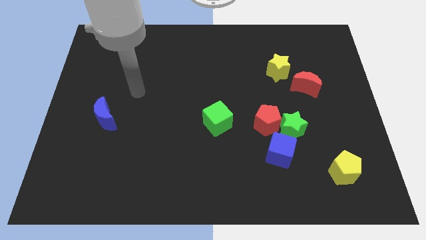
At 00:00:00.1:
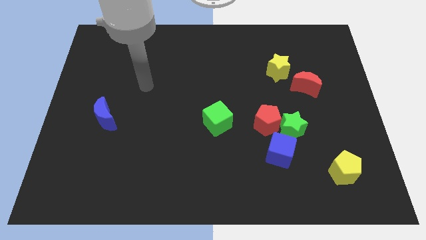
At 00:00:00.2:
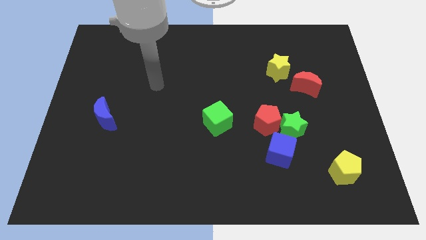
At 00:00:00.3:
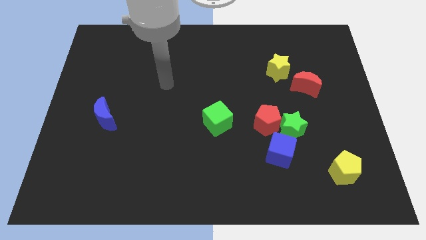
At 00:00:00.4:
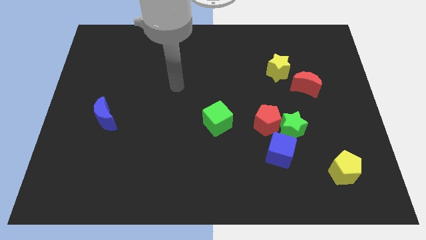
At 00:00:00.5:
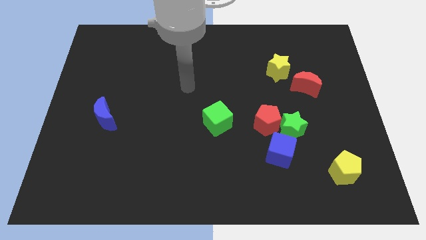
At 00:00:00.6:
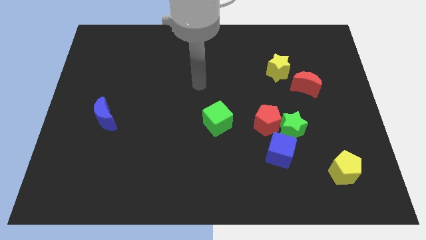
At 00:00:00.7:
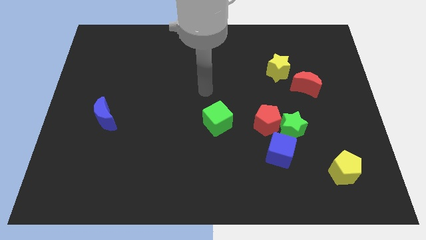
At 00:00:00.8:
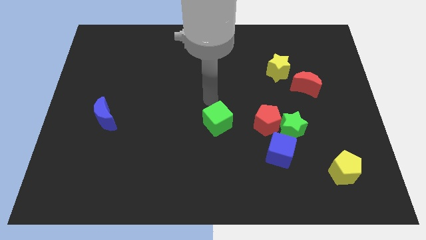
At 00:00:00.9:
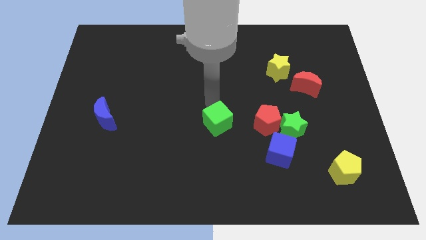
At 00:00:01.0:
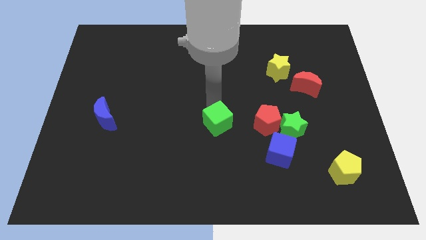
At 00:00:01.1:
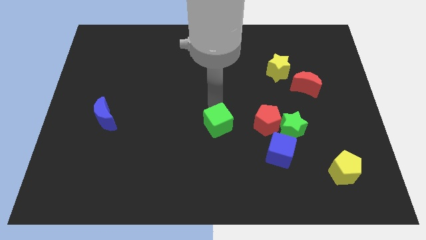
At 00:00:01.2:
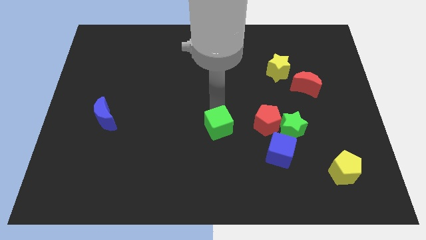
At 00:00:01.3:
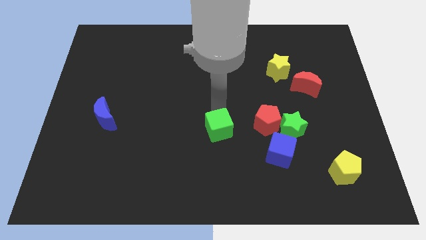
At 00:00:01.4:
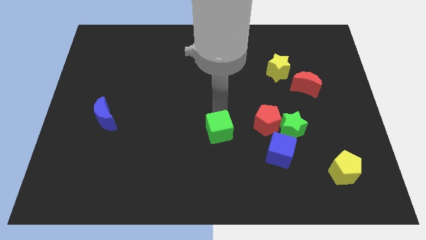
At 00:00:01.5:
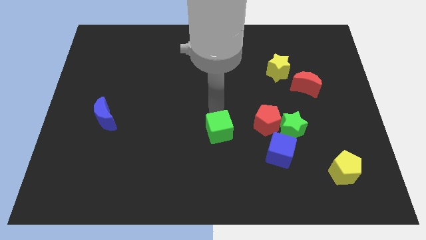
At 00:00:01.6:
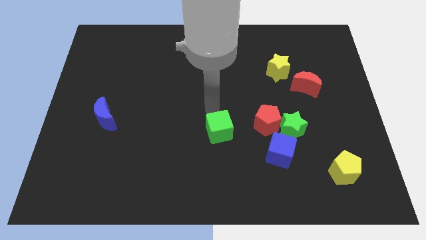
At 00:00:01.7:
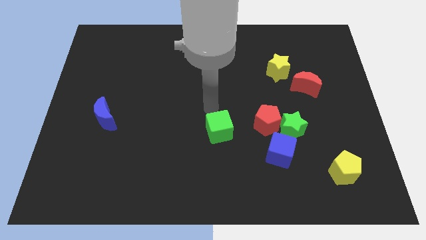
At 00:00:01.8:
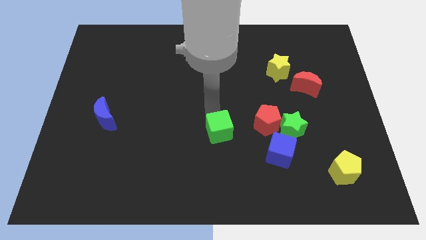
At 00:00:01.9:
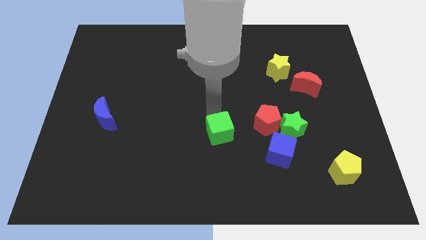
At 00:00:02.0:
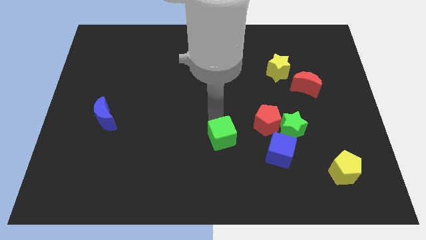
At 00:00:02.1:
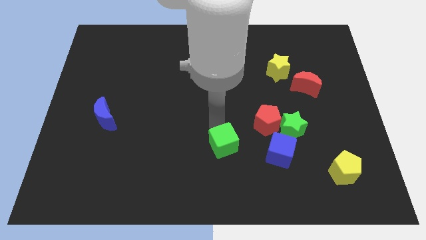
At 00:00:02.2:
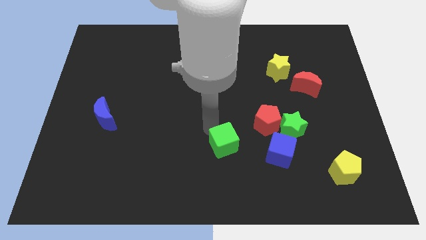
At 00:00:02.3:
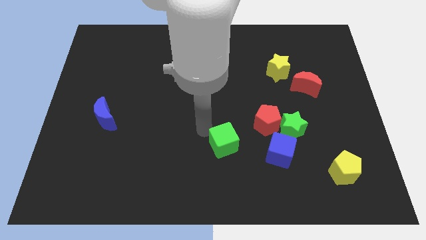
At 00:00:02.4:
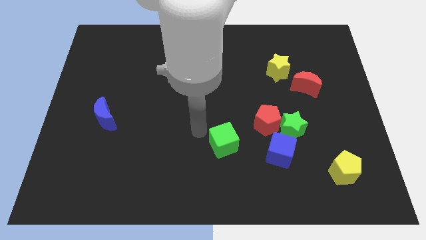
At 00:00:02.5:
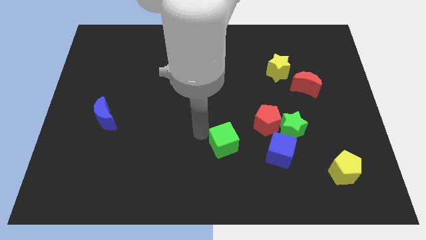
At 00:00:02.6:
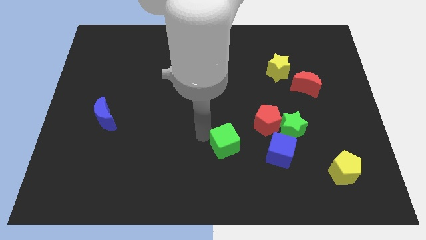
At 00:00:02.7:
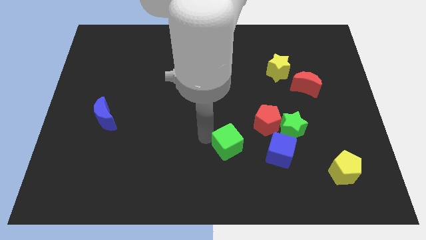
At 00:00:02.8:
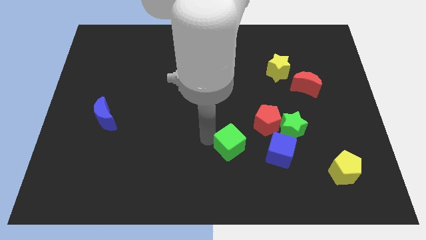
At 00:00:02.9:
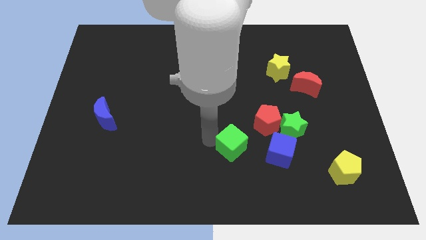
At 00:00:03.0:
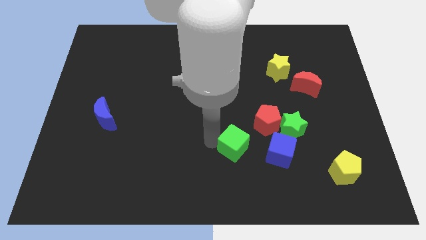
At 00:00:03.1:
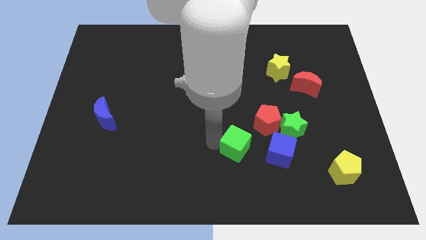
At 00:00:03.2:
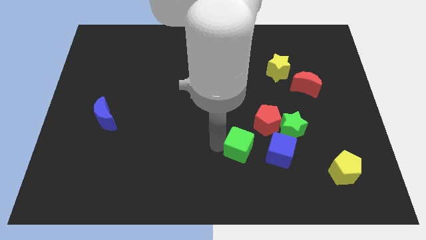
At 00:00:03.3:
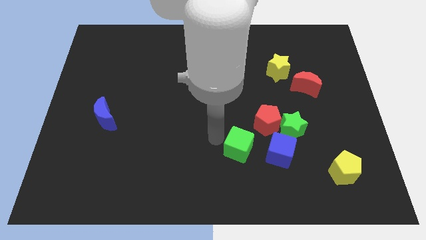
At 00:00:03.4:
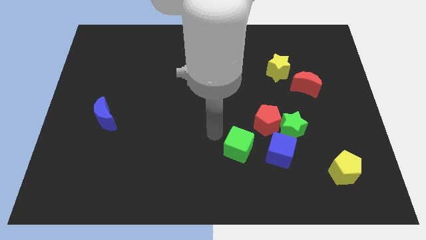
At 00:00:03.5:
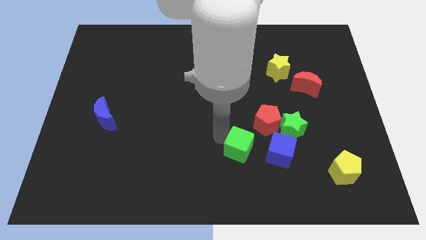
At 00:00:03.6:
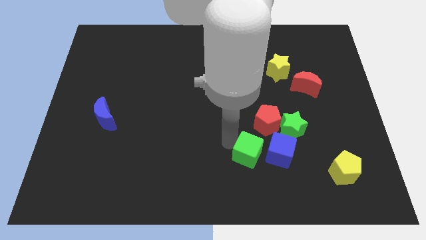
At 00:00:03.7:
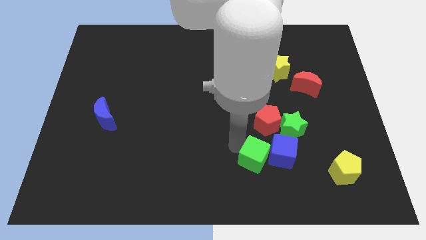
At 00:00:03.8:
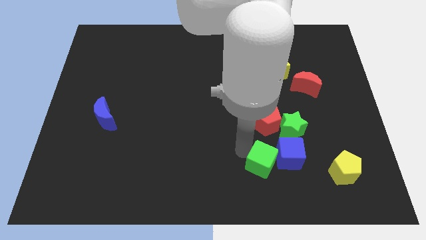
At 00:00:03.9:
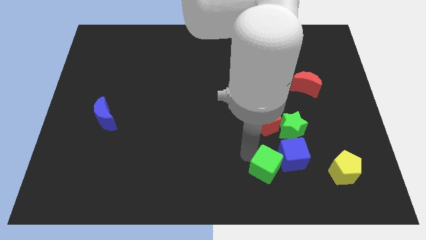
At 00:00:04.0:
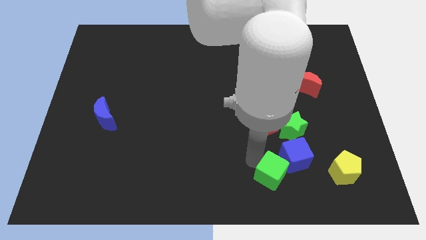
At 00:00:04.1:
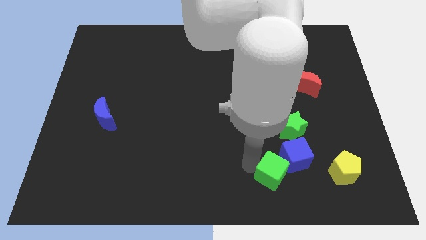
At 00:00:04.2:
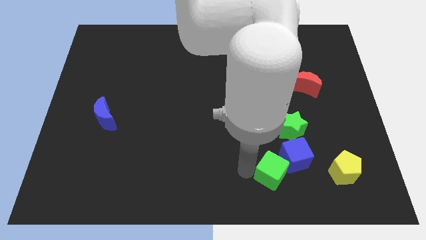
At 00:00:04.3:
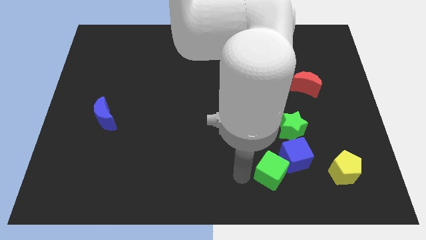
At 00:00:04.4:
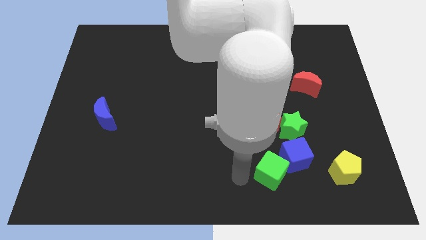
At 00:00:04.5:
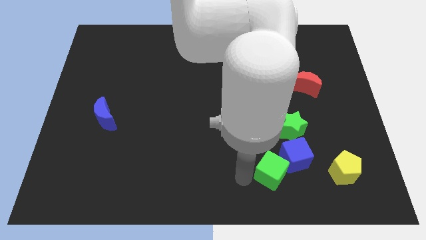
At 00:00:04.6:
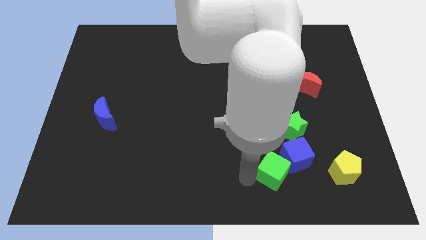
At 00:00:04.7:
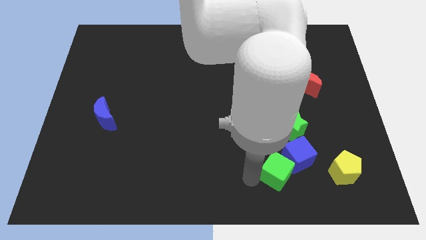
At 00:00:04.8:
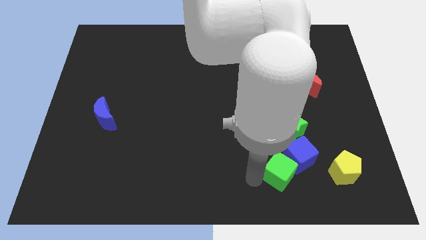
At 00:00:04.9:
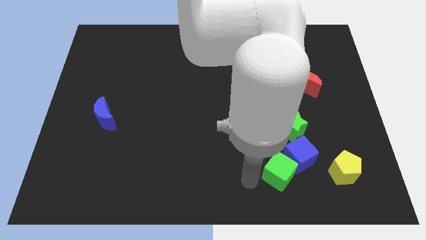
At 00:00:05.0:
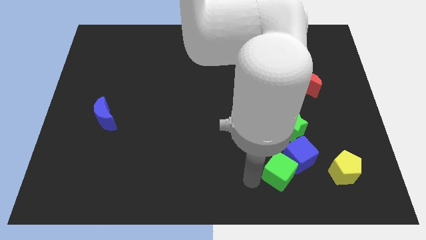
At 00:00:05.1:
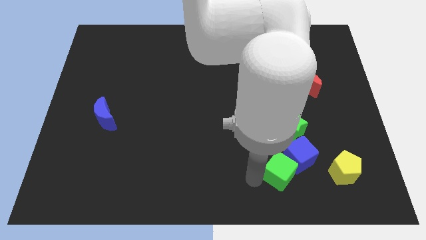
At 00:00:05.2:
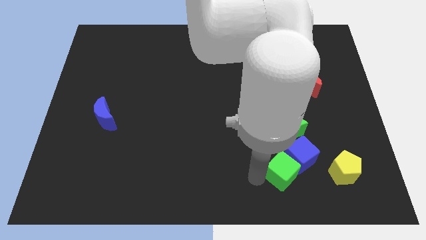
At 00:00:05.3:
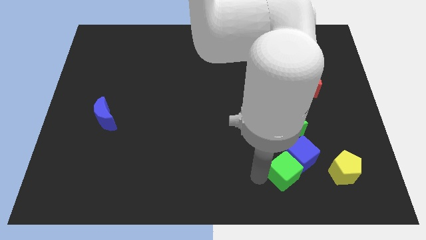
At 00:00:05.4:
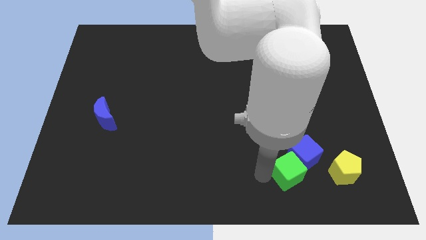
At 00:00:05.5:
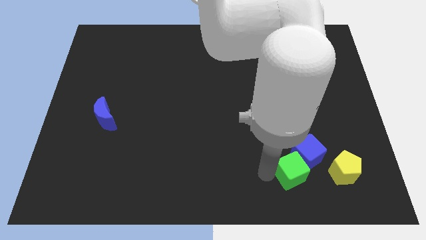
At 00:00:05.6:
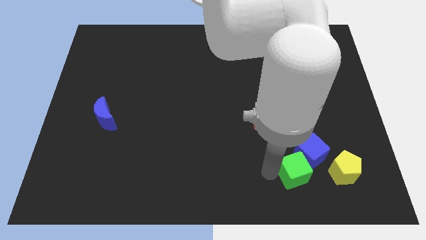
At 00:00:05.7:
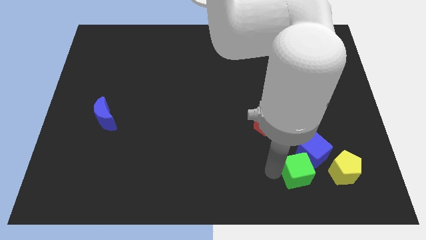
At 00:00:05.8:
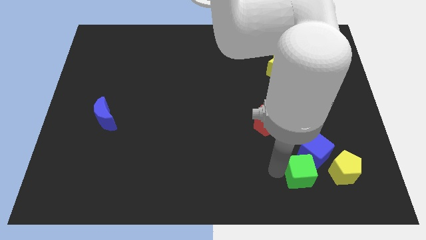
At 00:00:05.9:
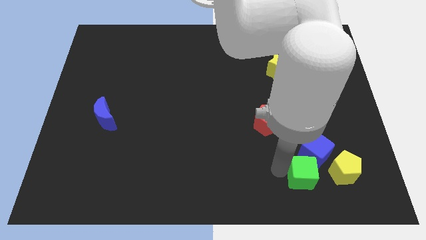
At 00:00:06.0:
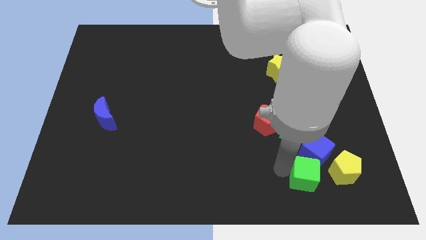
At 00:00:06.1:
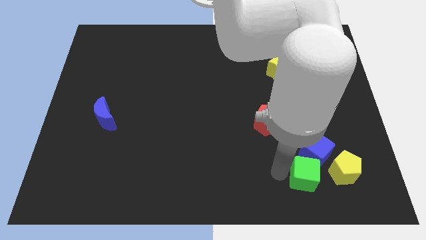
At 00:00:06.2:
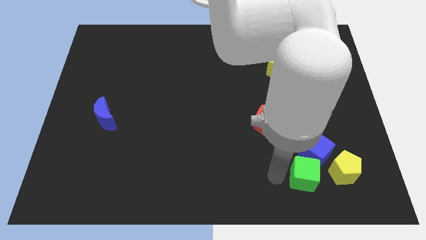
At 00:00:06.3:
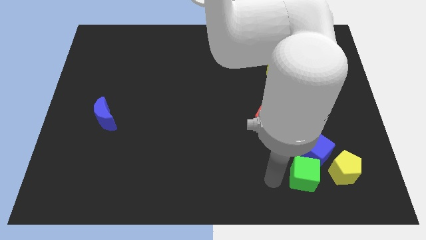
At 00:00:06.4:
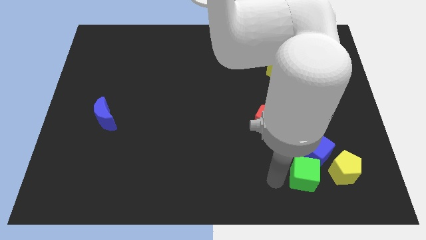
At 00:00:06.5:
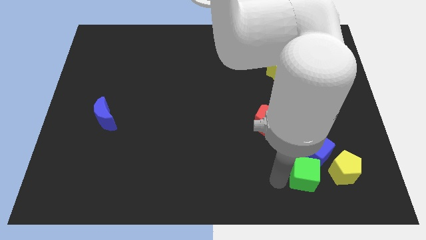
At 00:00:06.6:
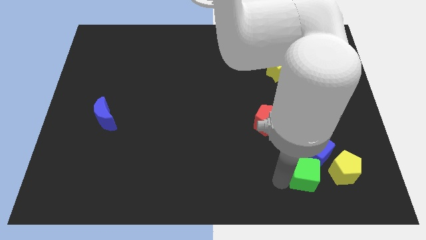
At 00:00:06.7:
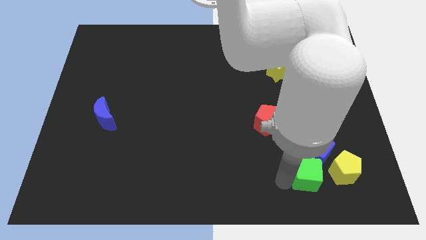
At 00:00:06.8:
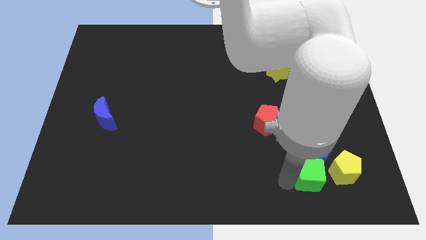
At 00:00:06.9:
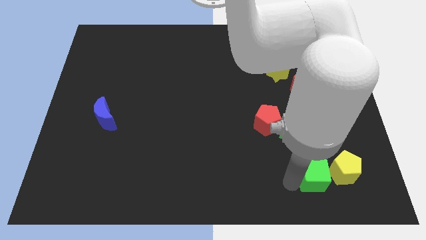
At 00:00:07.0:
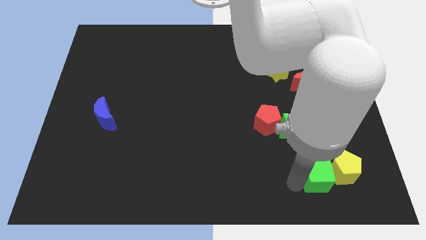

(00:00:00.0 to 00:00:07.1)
slide the green cube next to the yellow pentagon
